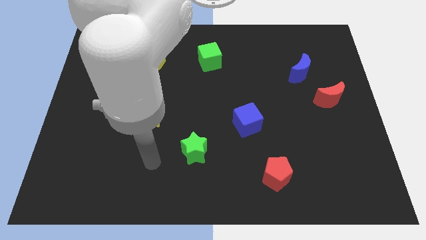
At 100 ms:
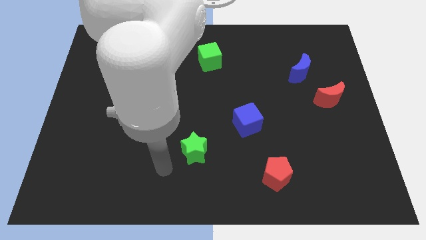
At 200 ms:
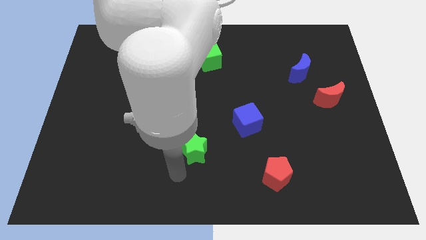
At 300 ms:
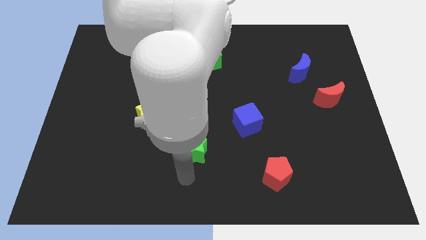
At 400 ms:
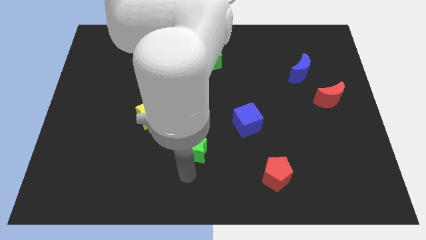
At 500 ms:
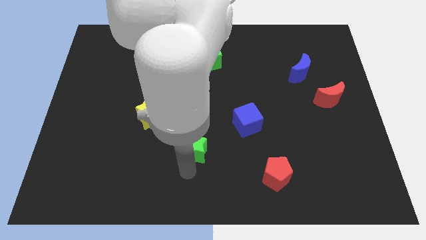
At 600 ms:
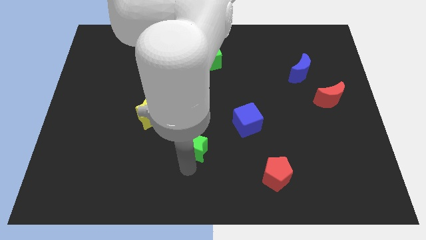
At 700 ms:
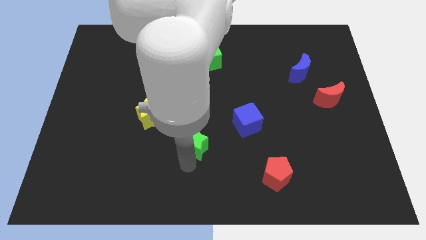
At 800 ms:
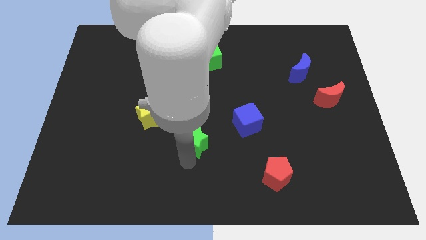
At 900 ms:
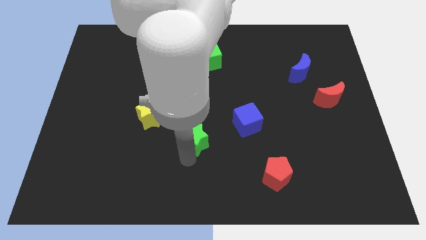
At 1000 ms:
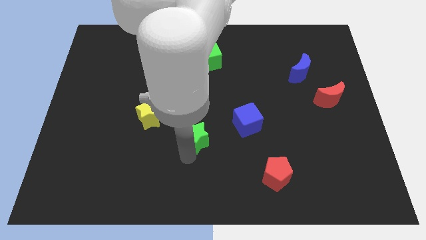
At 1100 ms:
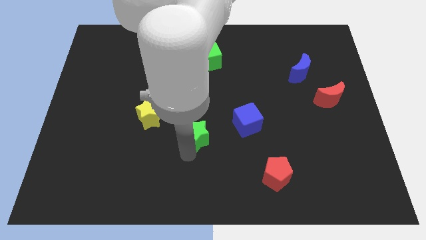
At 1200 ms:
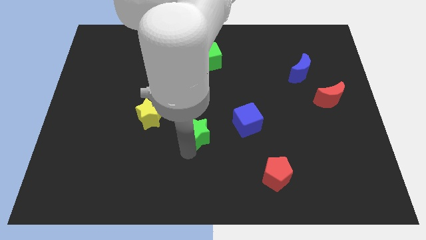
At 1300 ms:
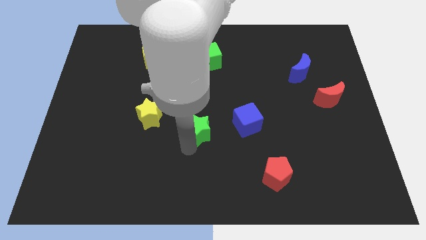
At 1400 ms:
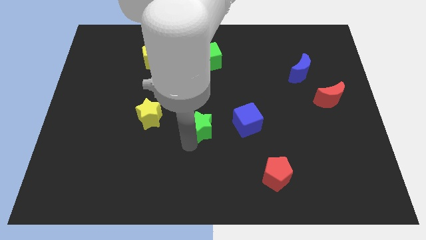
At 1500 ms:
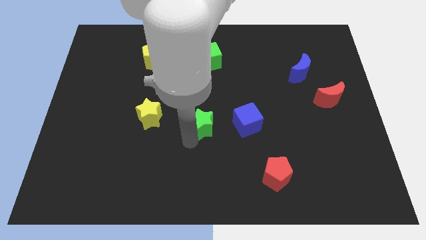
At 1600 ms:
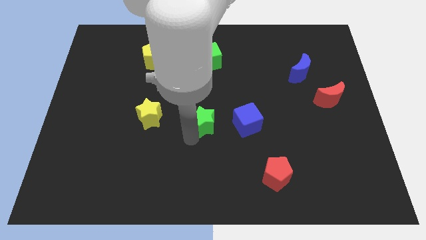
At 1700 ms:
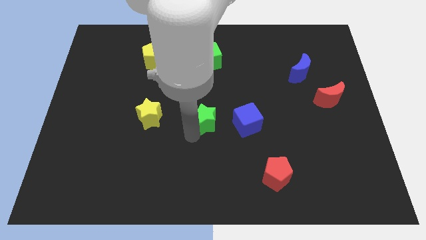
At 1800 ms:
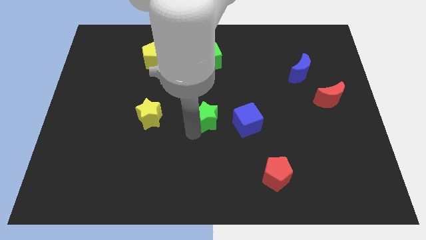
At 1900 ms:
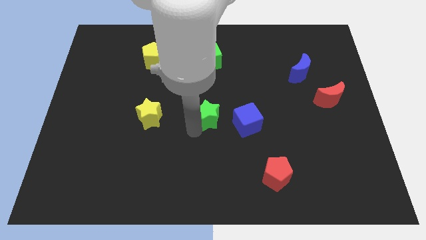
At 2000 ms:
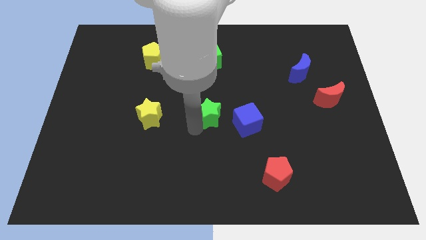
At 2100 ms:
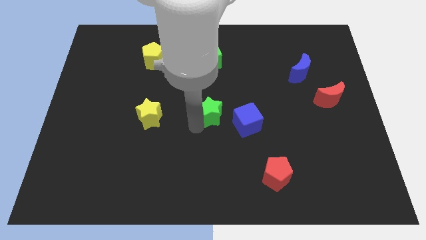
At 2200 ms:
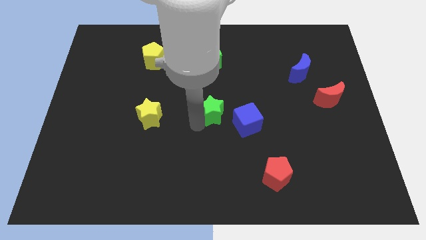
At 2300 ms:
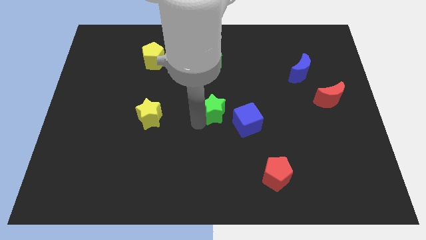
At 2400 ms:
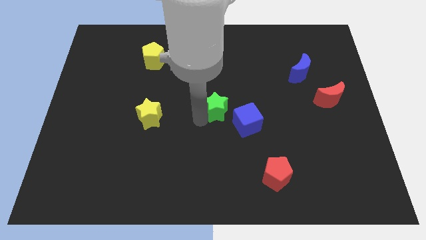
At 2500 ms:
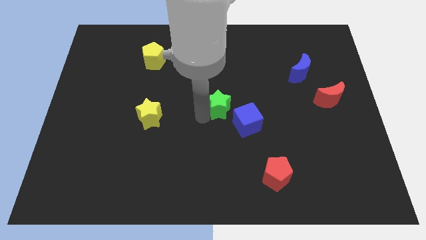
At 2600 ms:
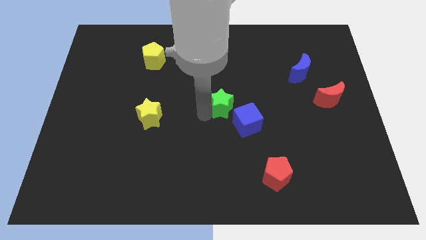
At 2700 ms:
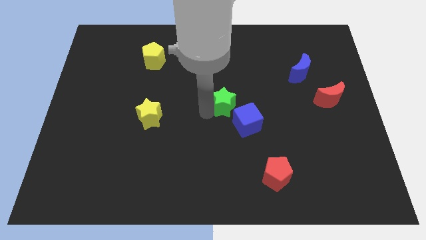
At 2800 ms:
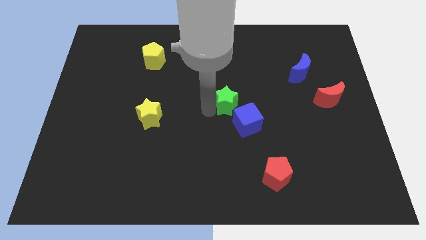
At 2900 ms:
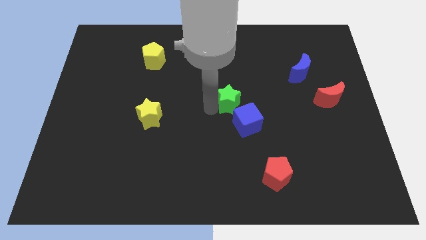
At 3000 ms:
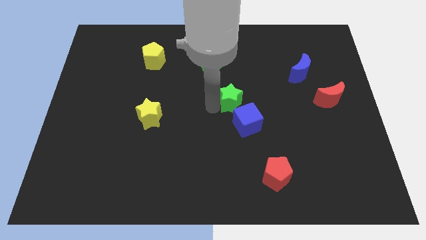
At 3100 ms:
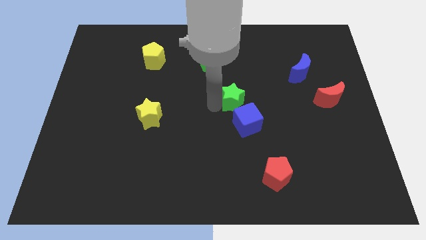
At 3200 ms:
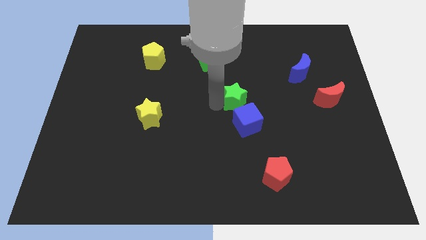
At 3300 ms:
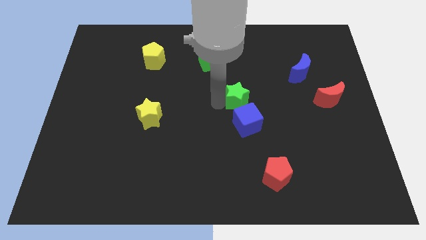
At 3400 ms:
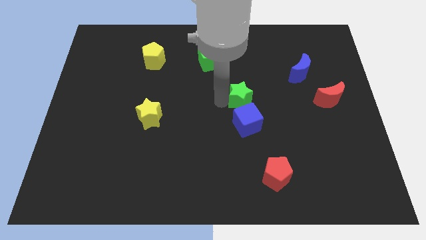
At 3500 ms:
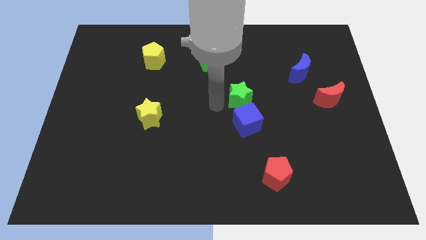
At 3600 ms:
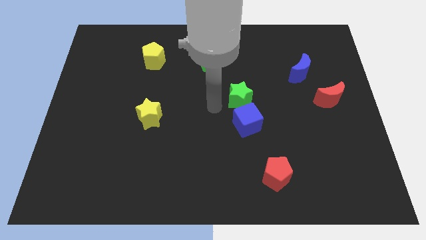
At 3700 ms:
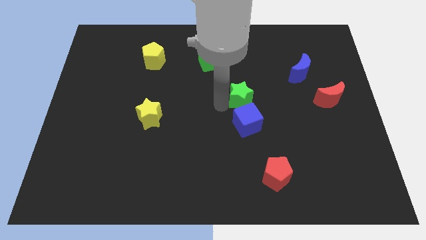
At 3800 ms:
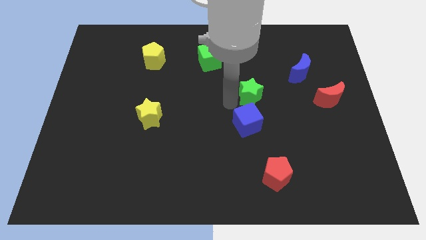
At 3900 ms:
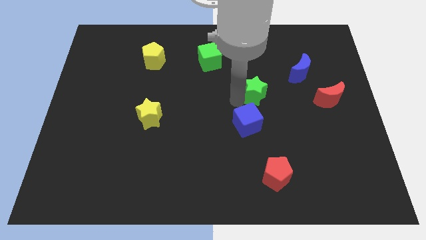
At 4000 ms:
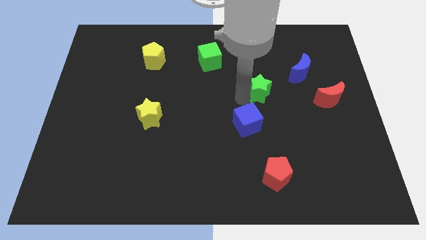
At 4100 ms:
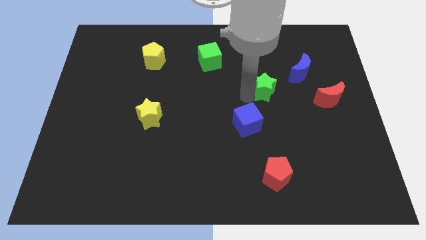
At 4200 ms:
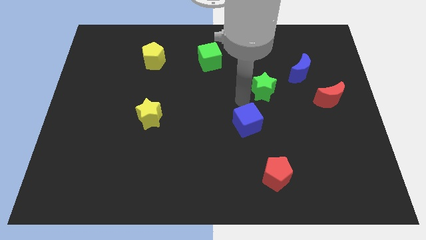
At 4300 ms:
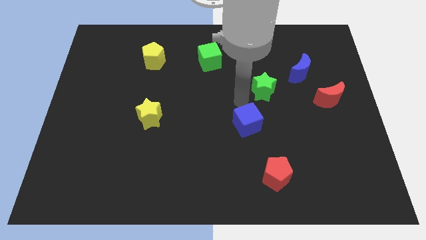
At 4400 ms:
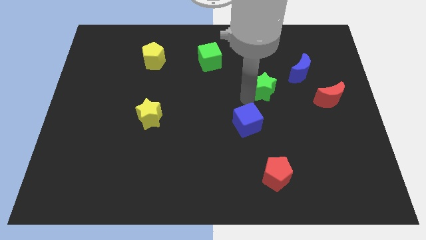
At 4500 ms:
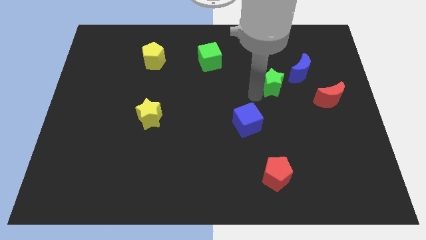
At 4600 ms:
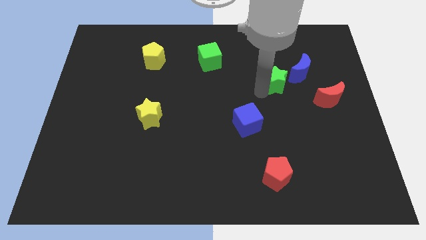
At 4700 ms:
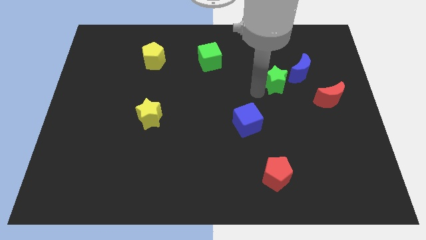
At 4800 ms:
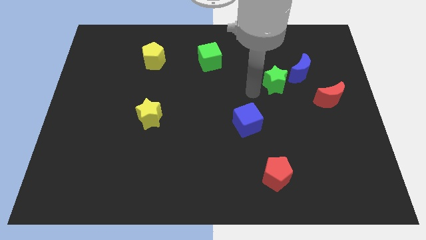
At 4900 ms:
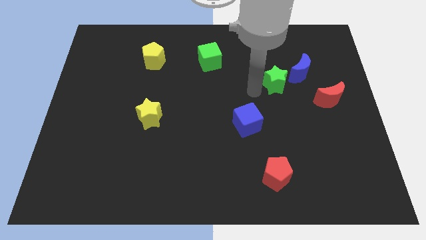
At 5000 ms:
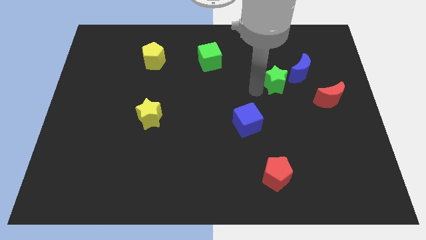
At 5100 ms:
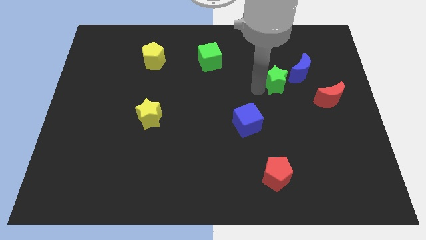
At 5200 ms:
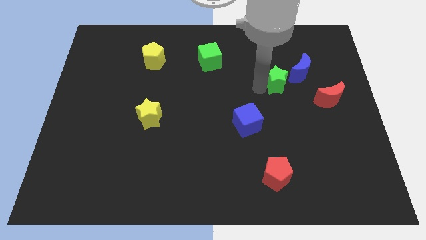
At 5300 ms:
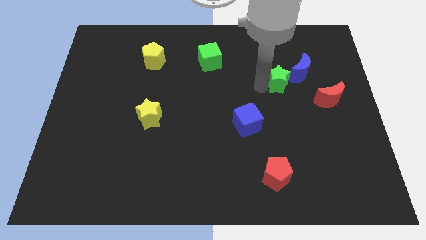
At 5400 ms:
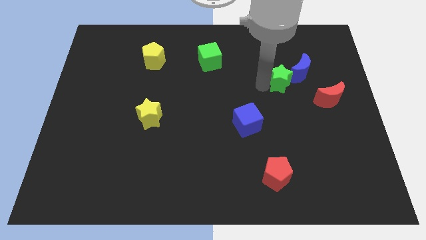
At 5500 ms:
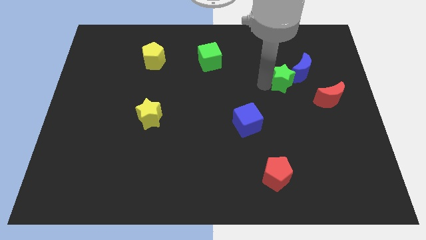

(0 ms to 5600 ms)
slide the green star next to the blue moon

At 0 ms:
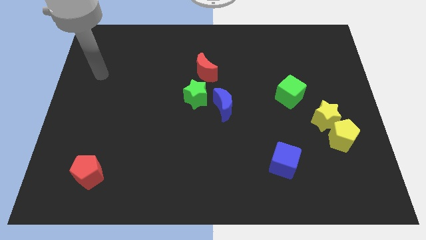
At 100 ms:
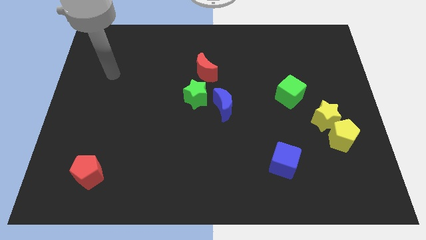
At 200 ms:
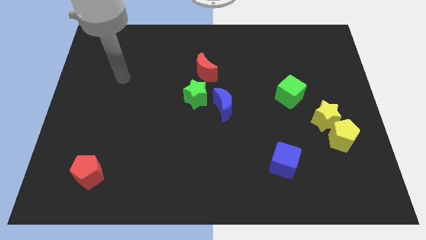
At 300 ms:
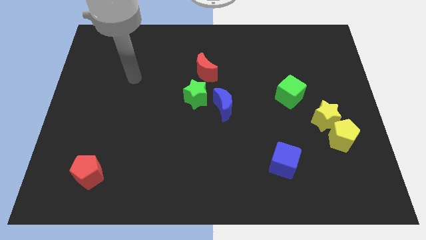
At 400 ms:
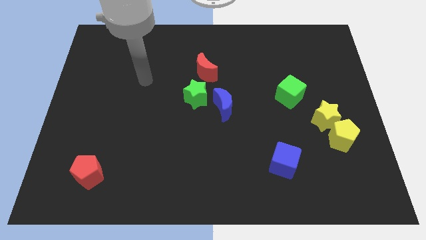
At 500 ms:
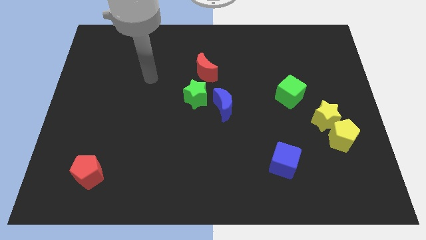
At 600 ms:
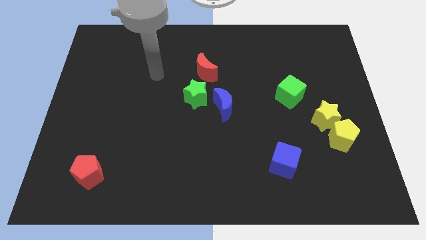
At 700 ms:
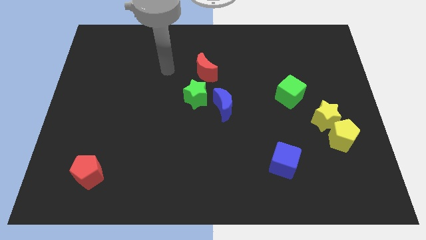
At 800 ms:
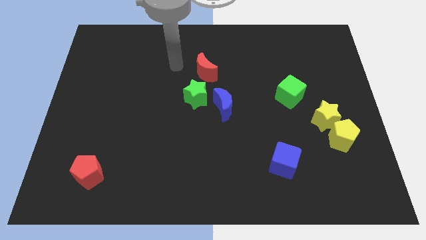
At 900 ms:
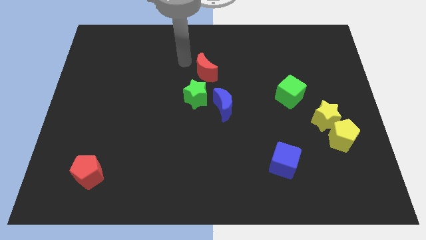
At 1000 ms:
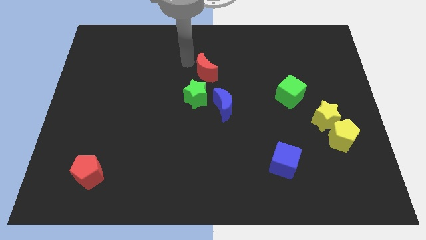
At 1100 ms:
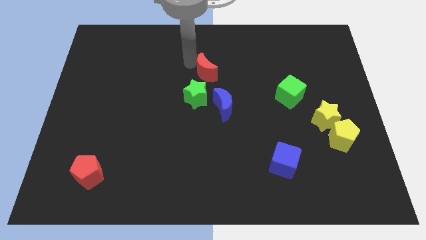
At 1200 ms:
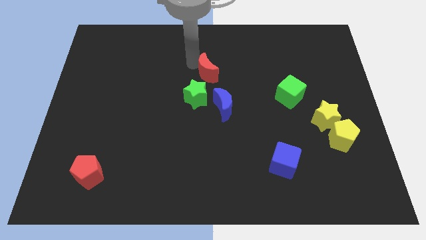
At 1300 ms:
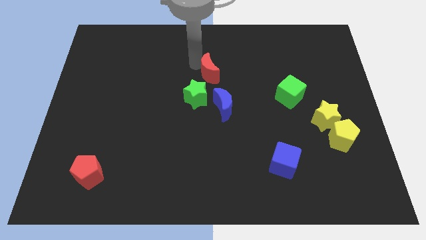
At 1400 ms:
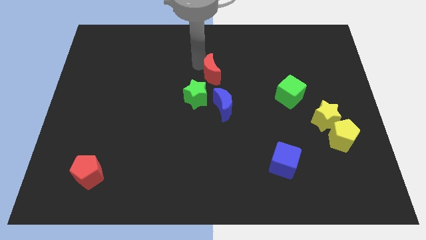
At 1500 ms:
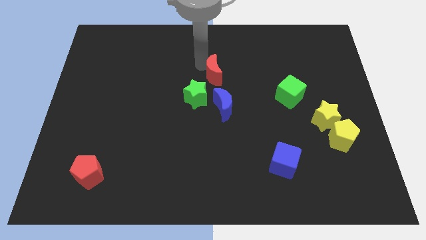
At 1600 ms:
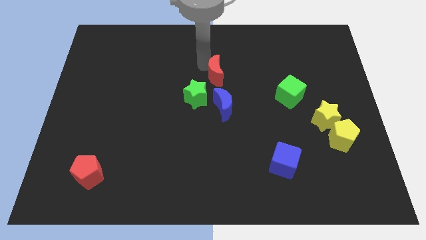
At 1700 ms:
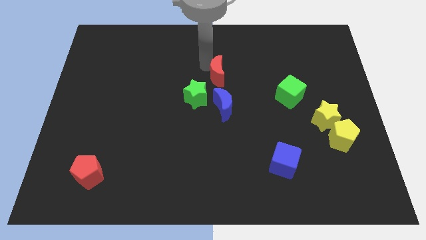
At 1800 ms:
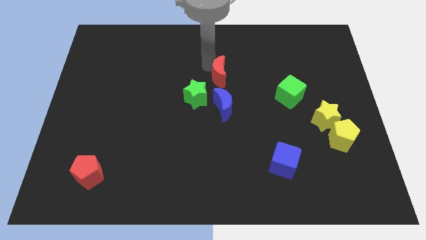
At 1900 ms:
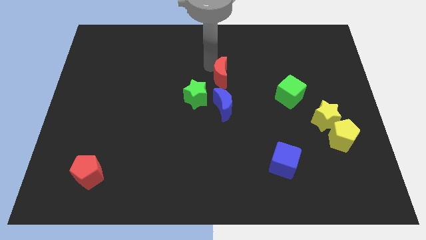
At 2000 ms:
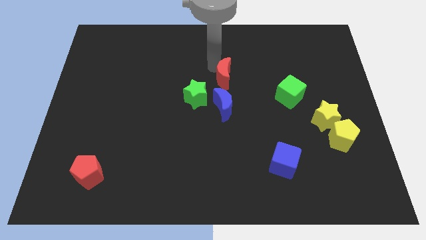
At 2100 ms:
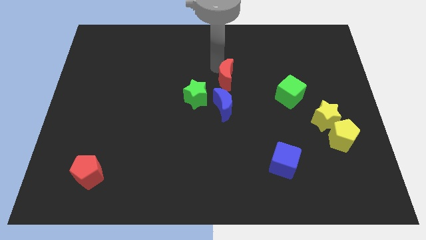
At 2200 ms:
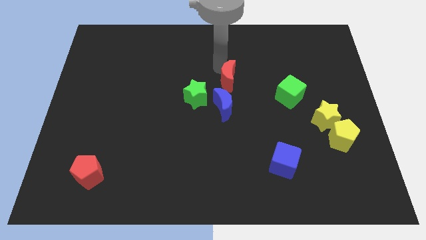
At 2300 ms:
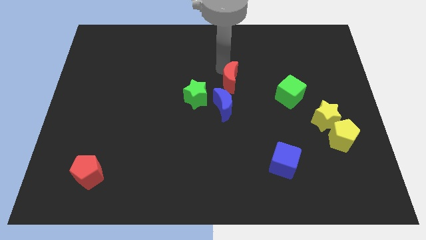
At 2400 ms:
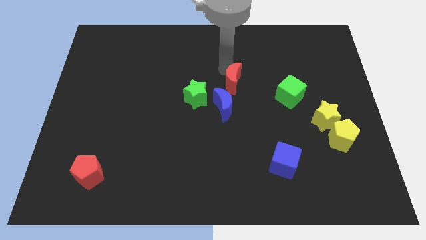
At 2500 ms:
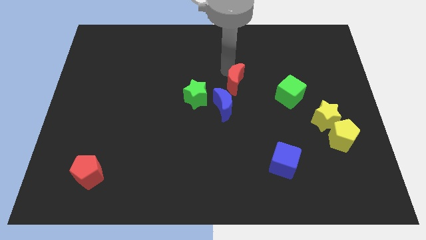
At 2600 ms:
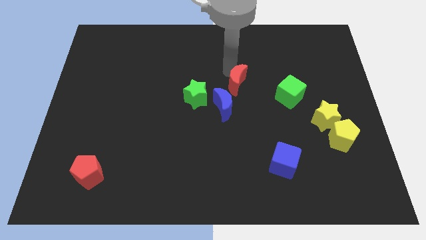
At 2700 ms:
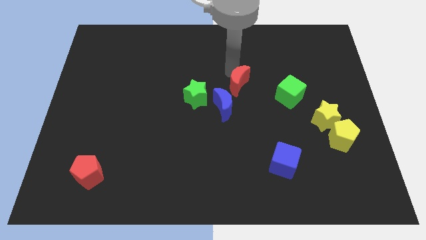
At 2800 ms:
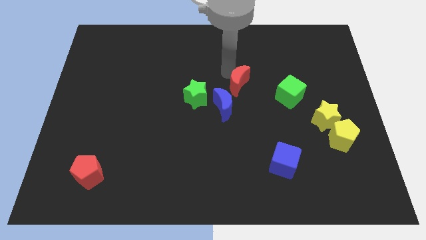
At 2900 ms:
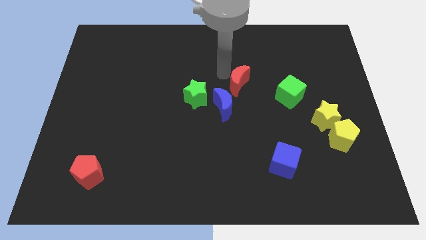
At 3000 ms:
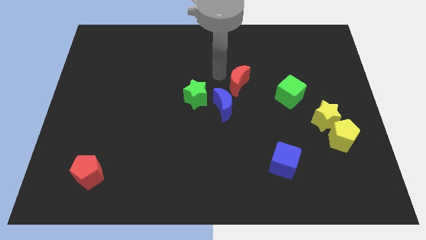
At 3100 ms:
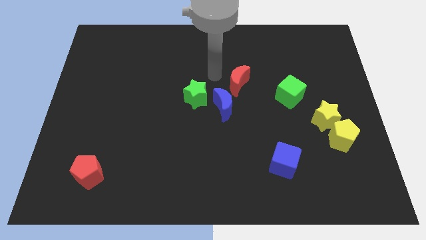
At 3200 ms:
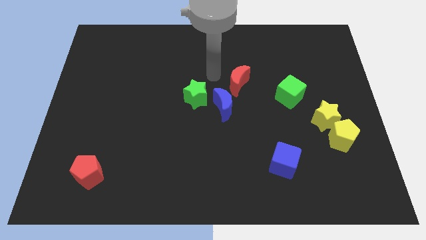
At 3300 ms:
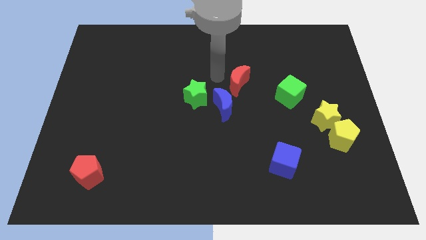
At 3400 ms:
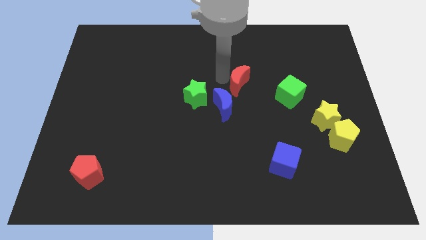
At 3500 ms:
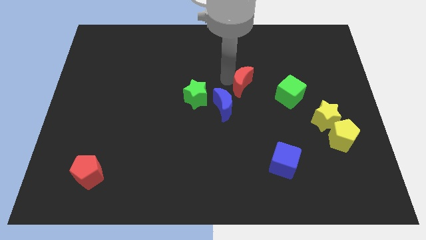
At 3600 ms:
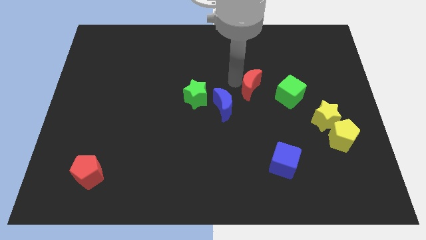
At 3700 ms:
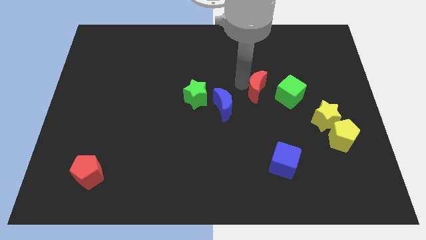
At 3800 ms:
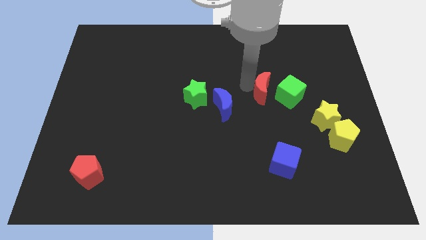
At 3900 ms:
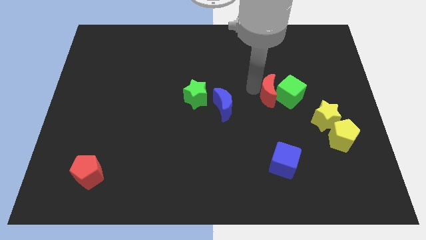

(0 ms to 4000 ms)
push the red moon to the green cube
